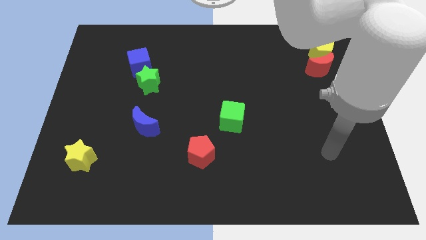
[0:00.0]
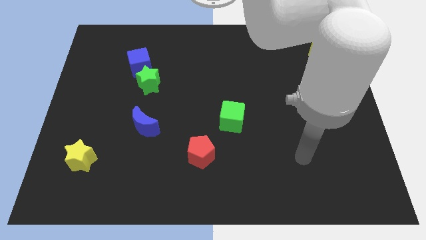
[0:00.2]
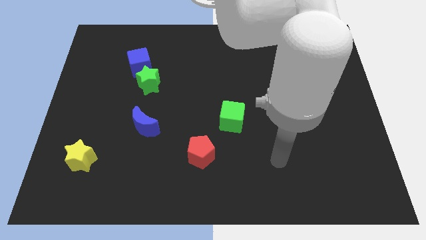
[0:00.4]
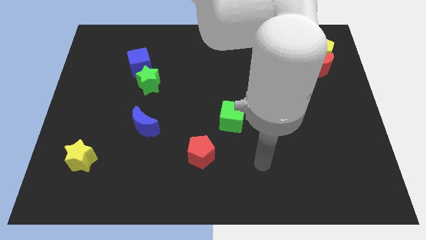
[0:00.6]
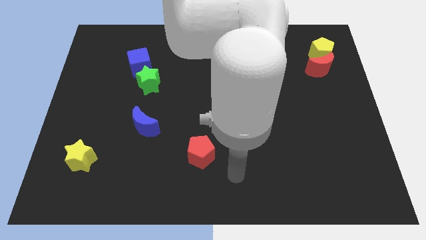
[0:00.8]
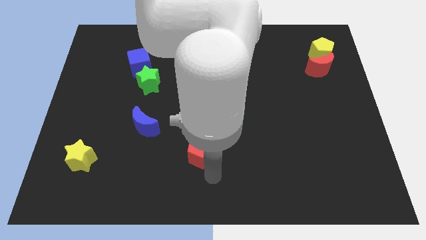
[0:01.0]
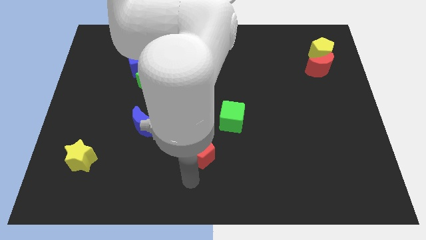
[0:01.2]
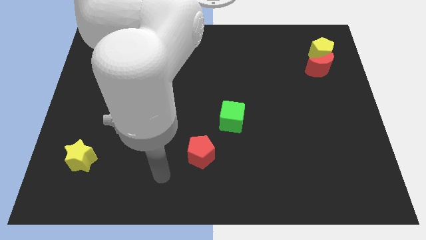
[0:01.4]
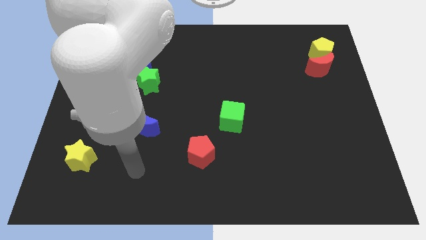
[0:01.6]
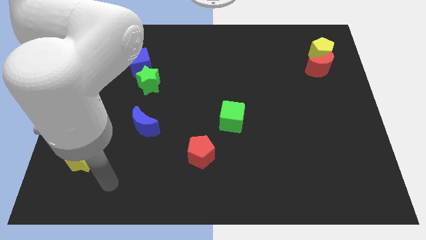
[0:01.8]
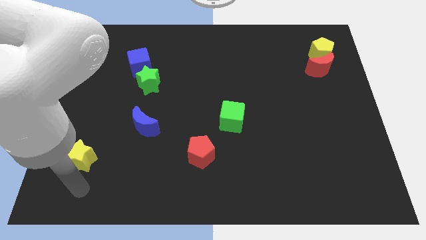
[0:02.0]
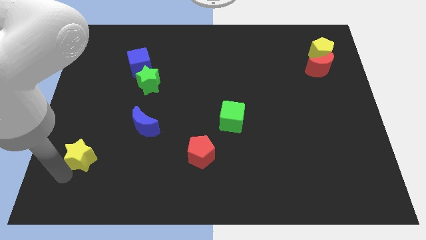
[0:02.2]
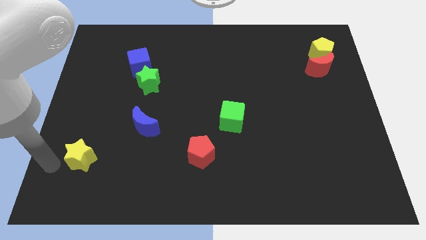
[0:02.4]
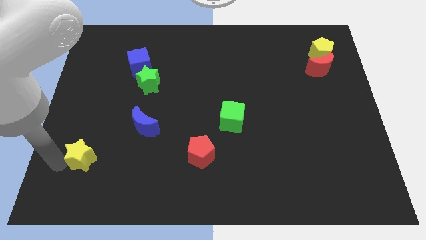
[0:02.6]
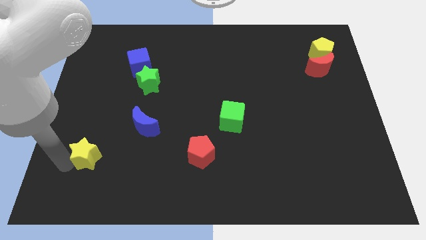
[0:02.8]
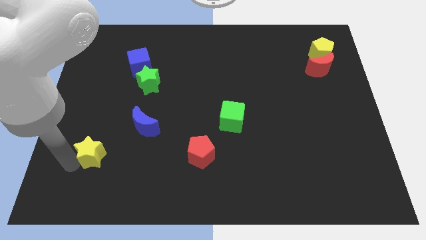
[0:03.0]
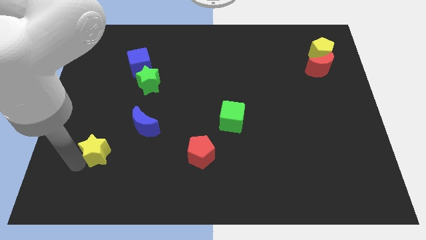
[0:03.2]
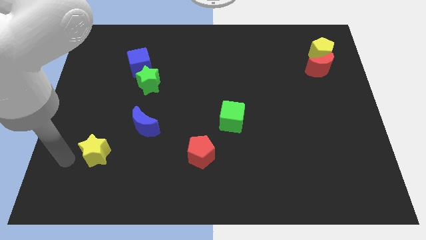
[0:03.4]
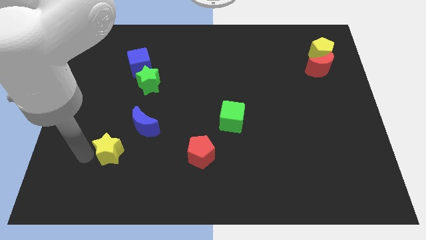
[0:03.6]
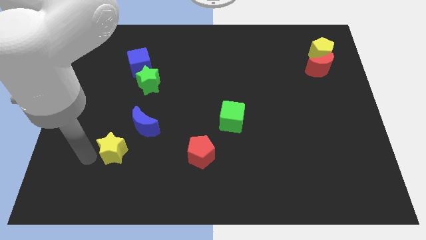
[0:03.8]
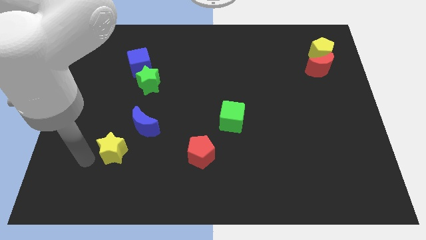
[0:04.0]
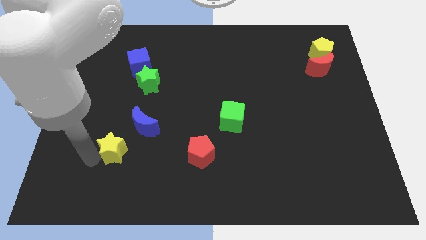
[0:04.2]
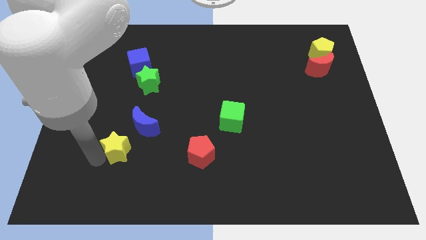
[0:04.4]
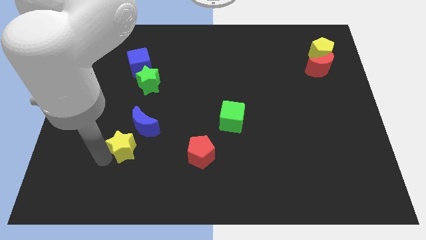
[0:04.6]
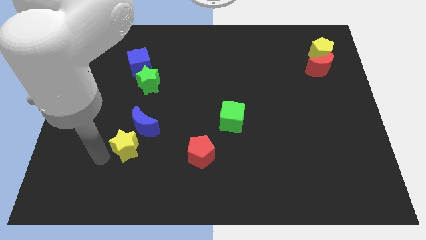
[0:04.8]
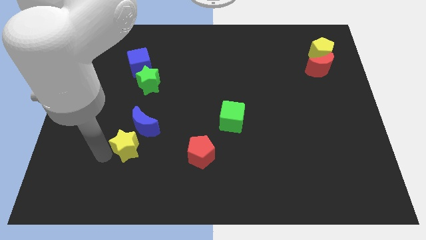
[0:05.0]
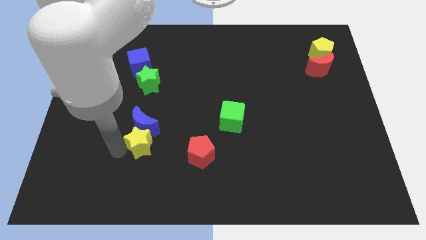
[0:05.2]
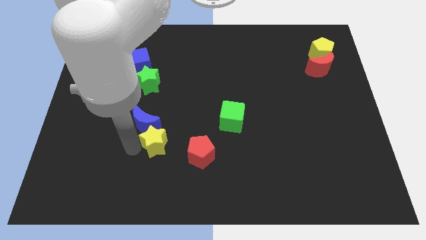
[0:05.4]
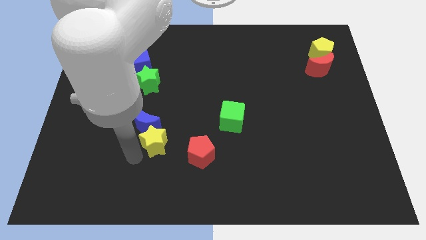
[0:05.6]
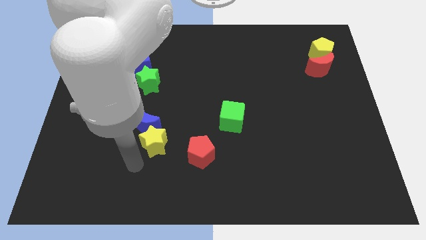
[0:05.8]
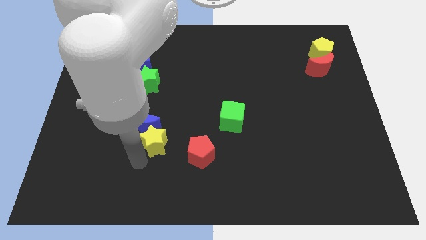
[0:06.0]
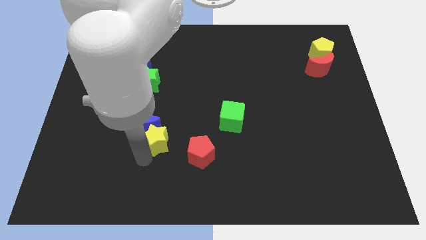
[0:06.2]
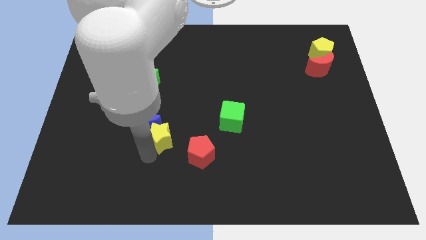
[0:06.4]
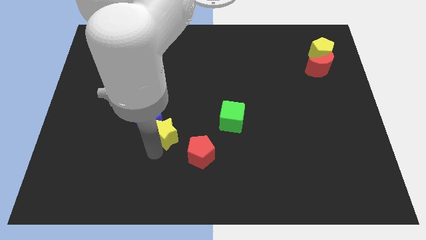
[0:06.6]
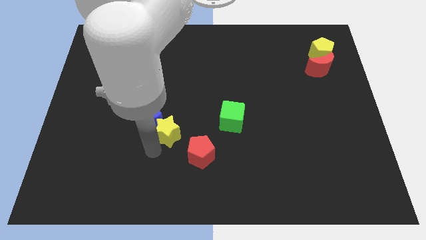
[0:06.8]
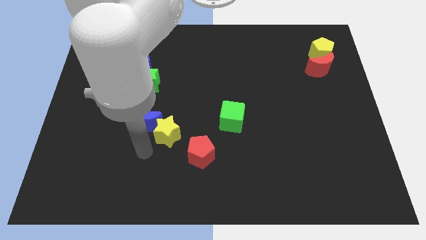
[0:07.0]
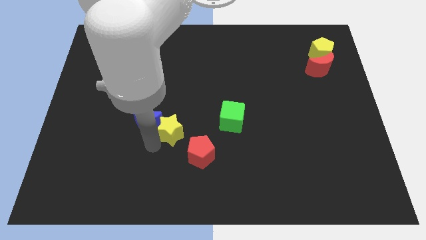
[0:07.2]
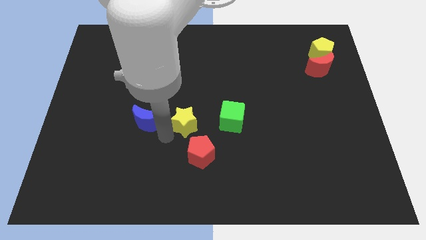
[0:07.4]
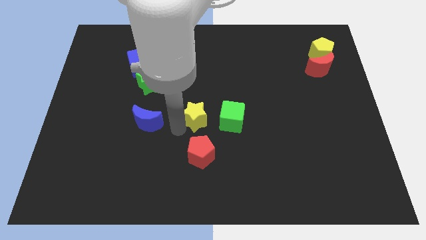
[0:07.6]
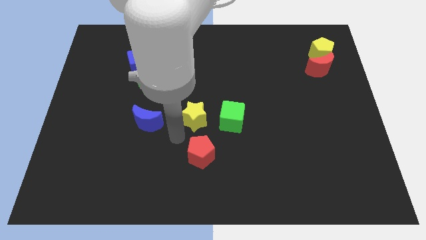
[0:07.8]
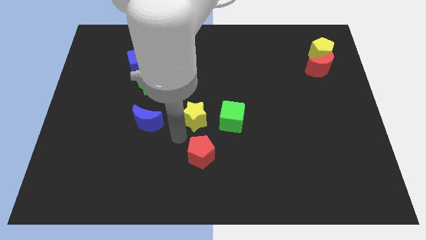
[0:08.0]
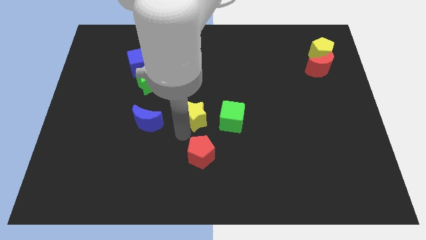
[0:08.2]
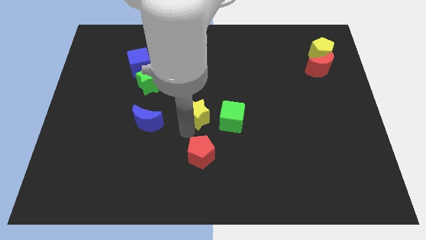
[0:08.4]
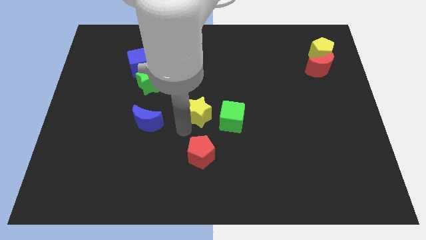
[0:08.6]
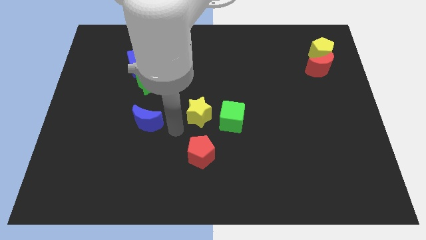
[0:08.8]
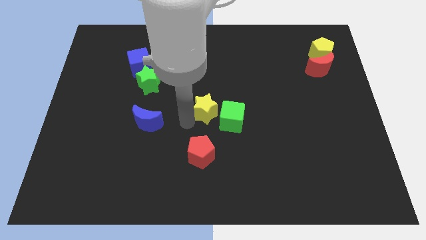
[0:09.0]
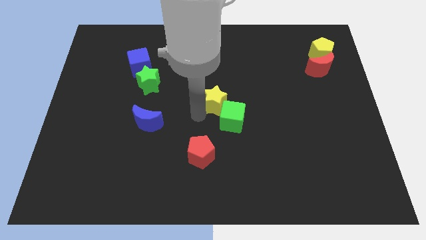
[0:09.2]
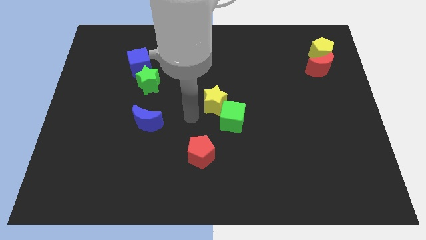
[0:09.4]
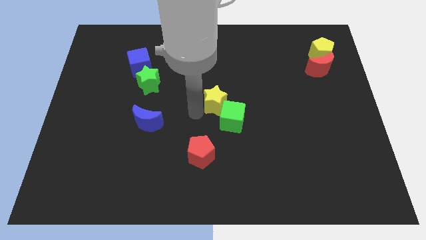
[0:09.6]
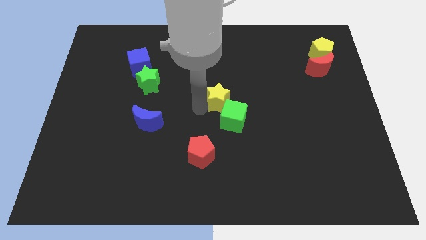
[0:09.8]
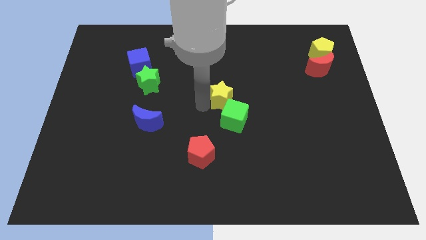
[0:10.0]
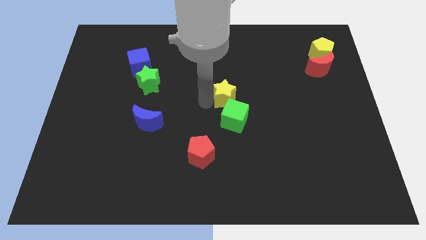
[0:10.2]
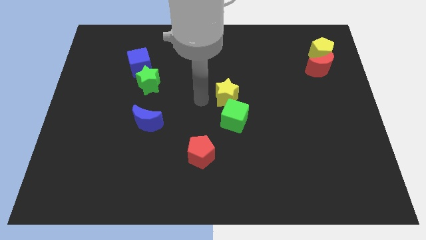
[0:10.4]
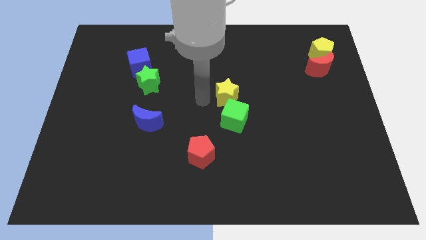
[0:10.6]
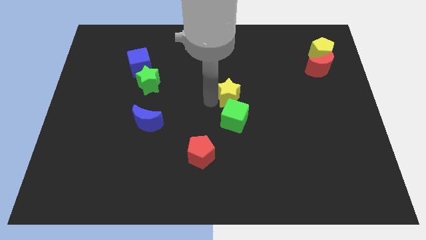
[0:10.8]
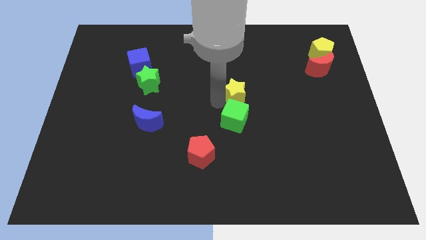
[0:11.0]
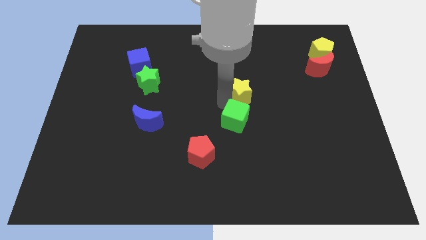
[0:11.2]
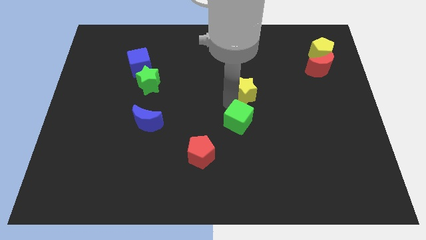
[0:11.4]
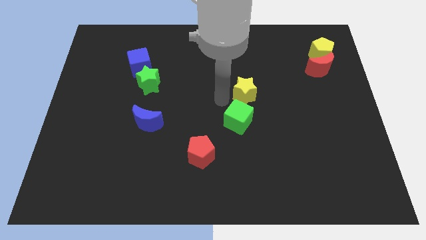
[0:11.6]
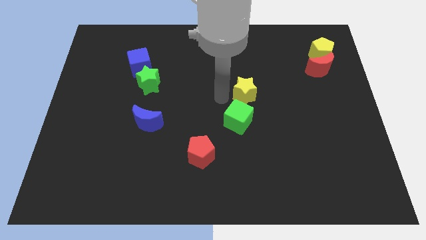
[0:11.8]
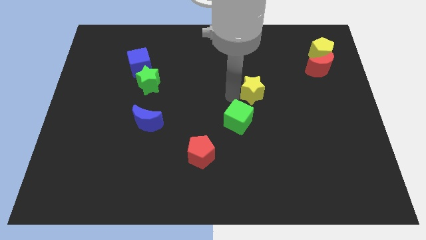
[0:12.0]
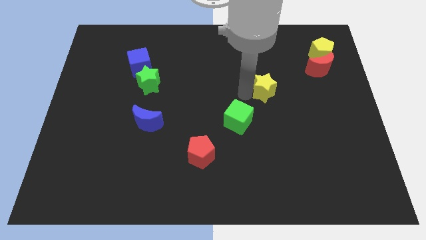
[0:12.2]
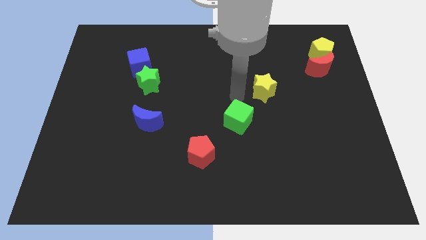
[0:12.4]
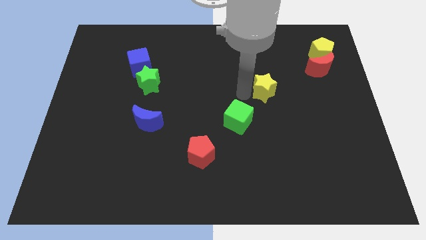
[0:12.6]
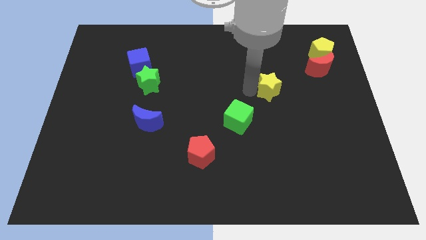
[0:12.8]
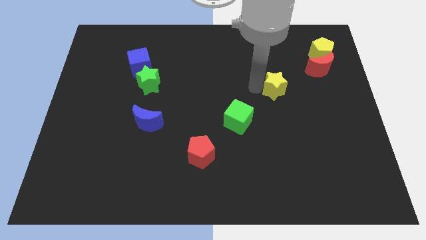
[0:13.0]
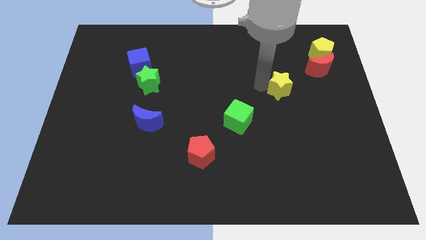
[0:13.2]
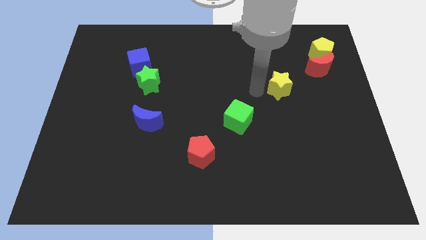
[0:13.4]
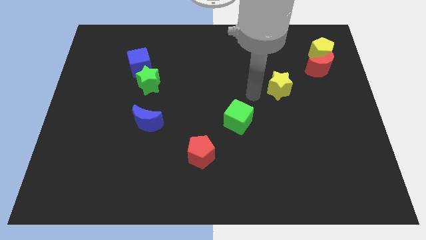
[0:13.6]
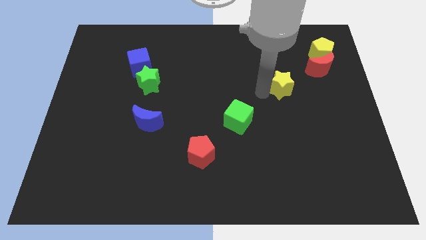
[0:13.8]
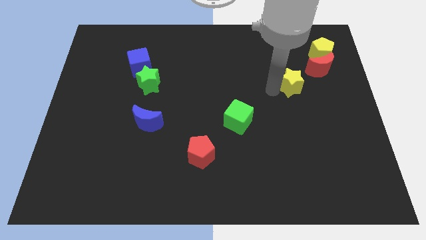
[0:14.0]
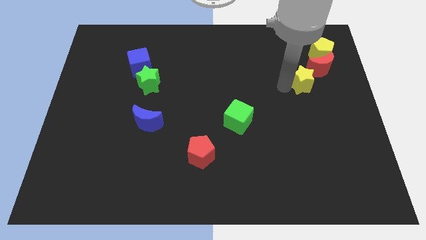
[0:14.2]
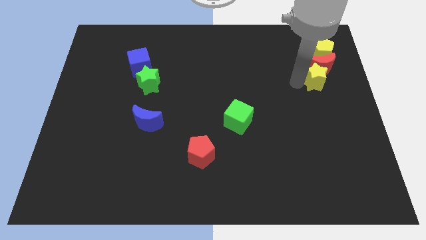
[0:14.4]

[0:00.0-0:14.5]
slide the yellow star to the bottom of the yellow pentagon
